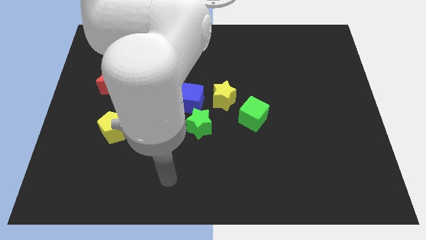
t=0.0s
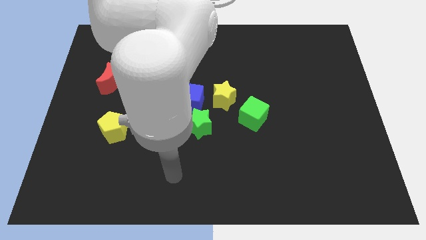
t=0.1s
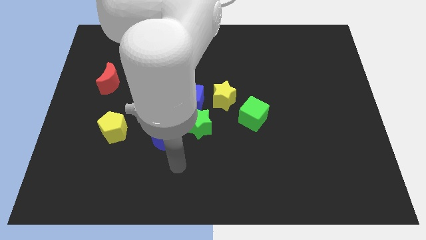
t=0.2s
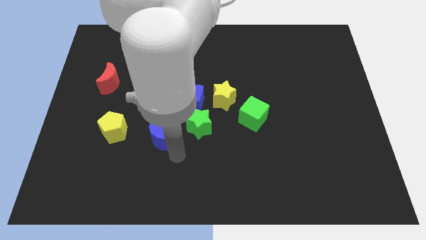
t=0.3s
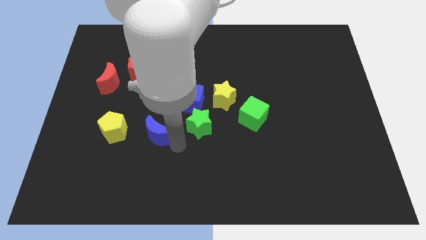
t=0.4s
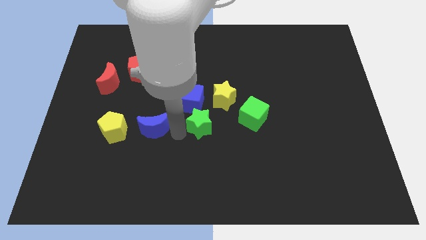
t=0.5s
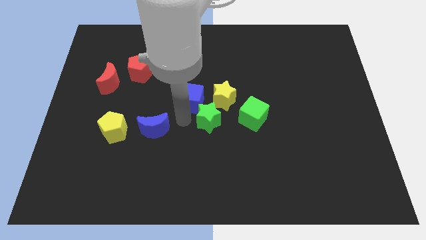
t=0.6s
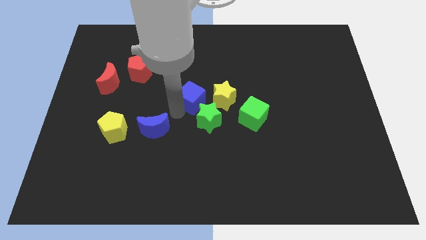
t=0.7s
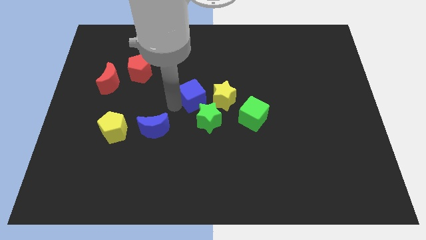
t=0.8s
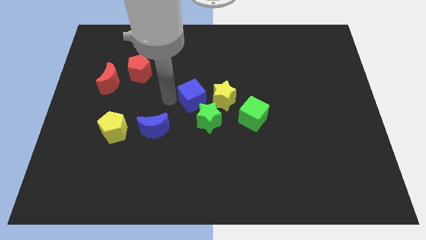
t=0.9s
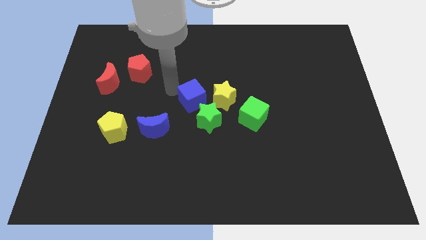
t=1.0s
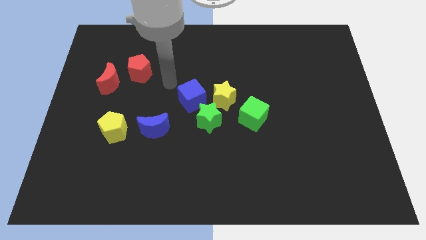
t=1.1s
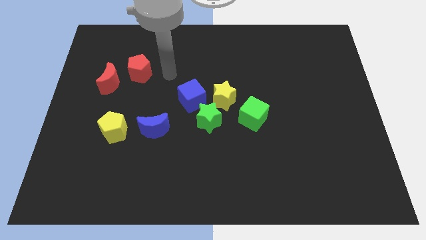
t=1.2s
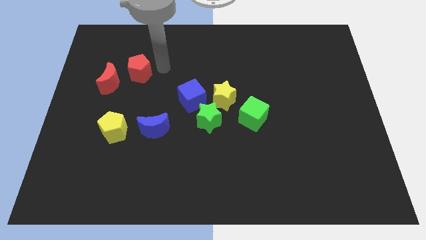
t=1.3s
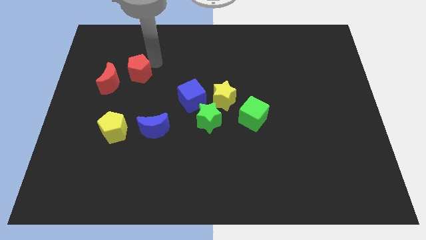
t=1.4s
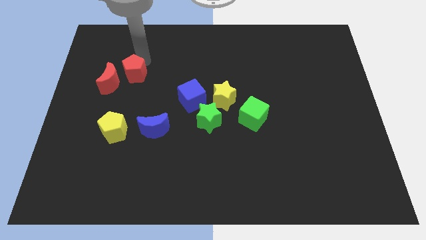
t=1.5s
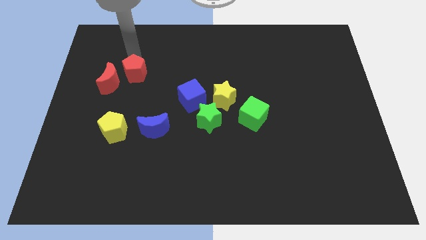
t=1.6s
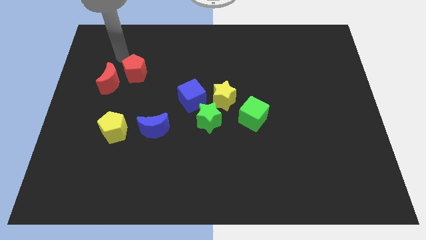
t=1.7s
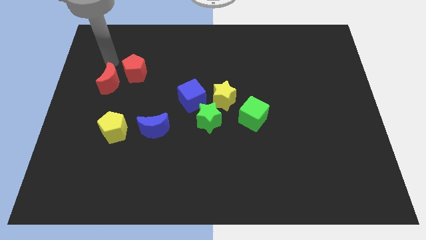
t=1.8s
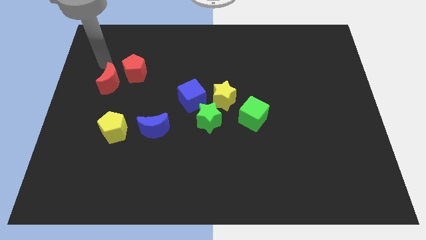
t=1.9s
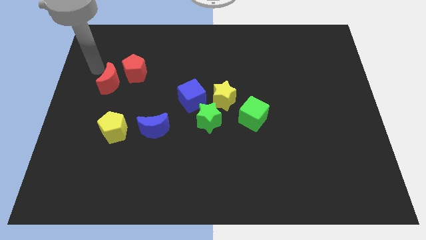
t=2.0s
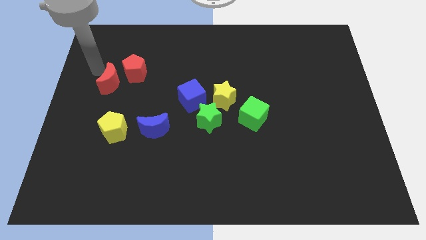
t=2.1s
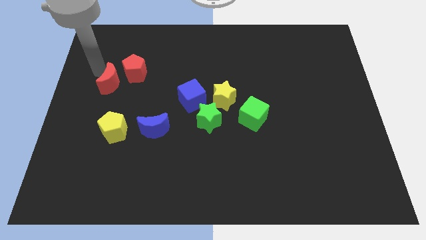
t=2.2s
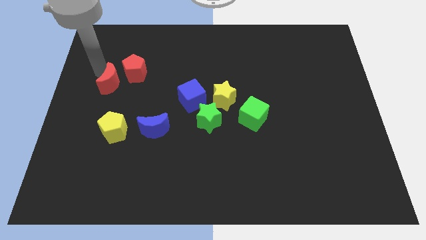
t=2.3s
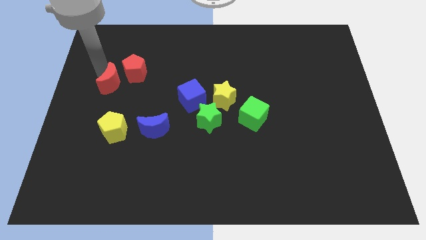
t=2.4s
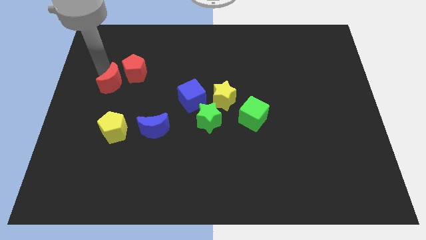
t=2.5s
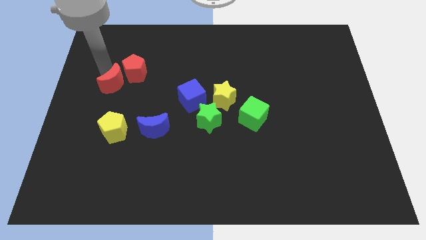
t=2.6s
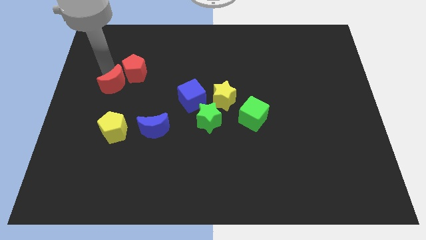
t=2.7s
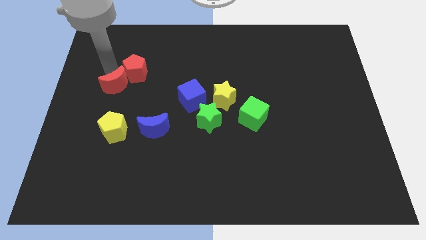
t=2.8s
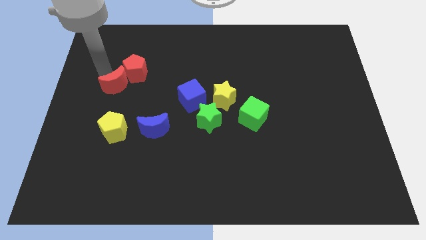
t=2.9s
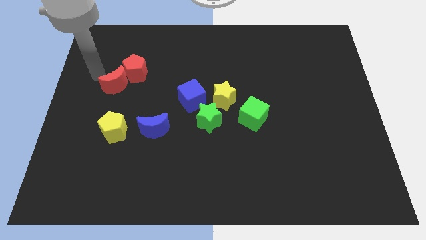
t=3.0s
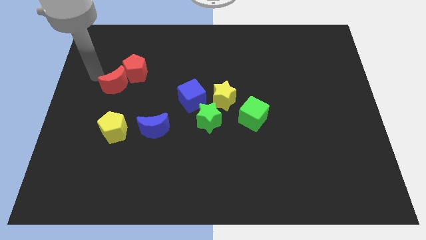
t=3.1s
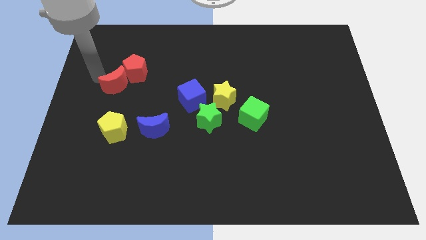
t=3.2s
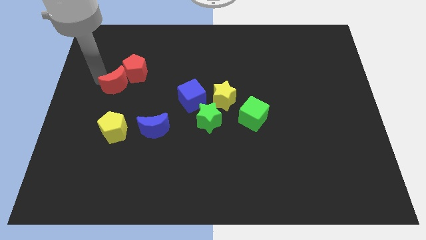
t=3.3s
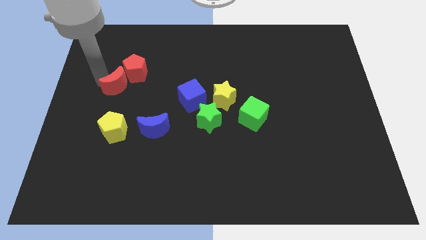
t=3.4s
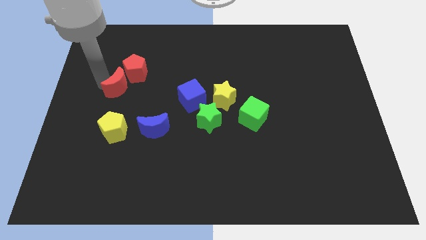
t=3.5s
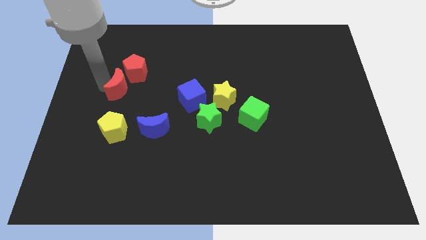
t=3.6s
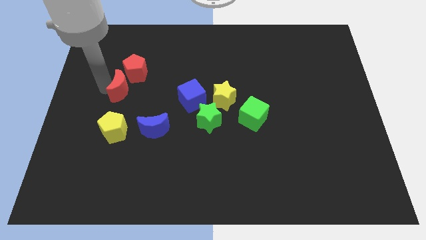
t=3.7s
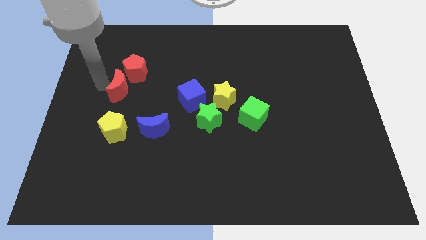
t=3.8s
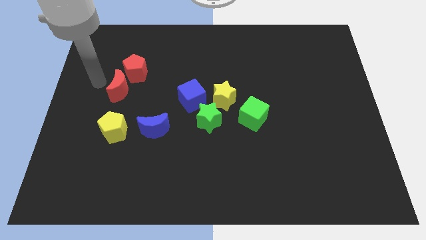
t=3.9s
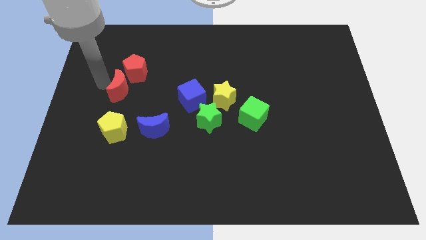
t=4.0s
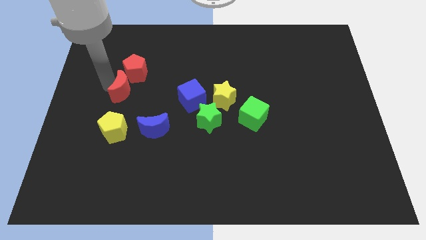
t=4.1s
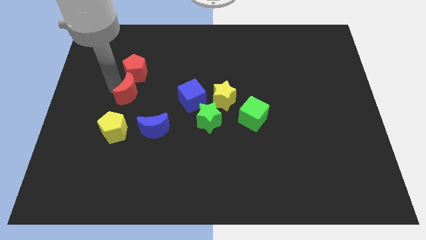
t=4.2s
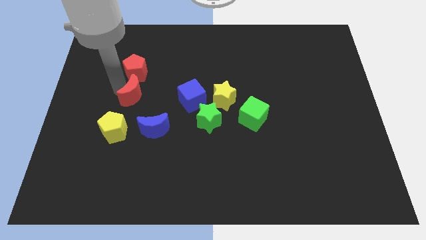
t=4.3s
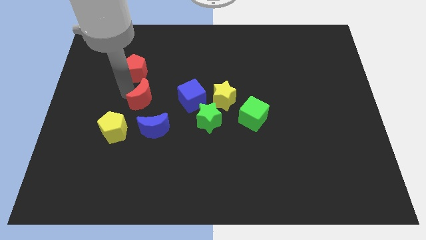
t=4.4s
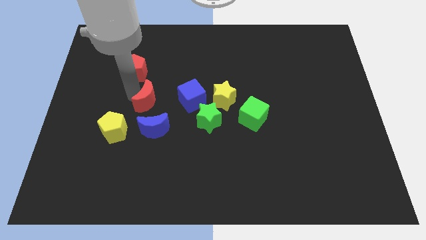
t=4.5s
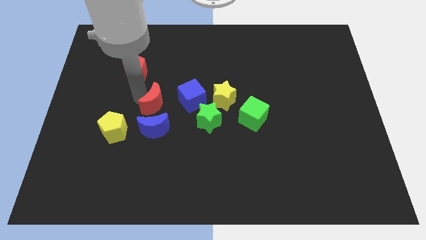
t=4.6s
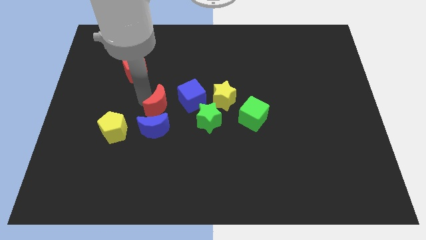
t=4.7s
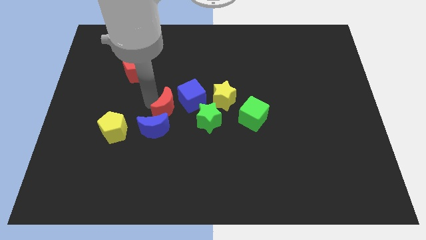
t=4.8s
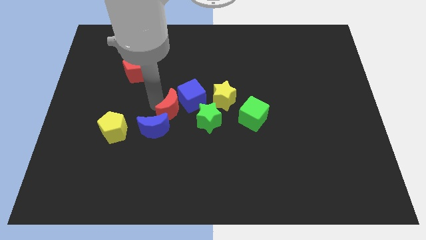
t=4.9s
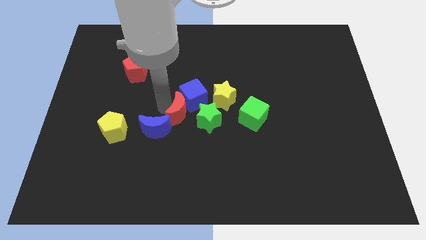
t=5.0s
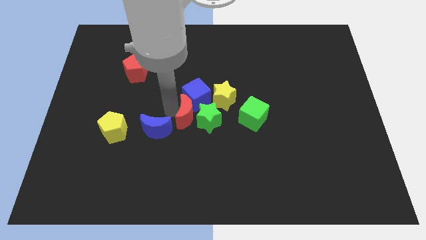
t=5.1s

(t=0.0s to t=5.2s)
push the red moon close to the green star

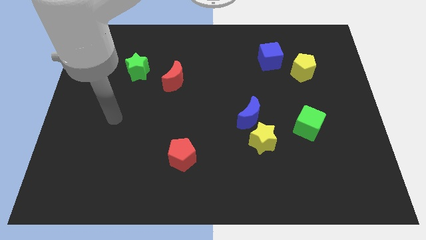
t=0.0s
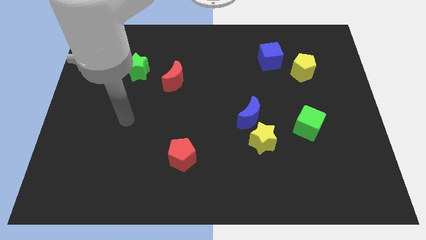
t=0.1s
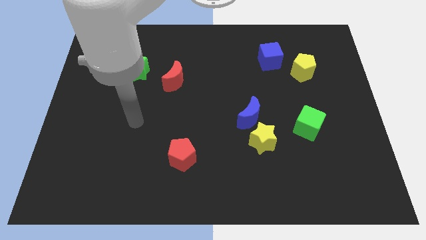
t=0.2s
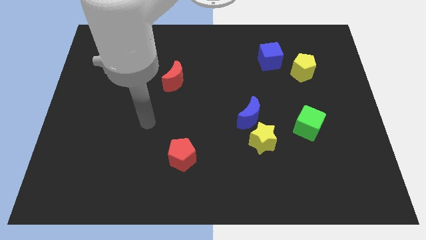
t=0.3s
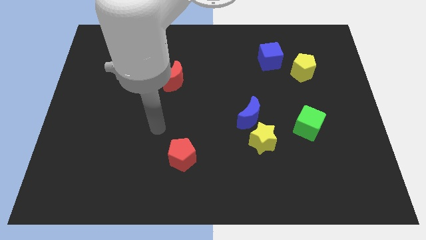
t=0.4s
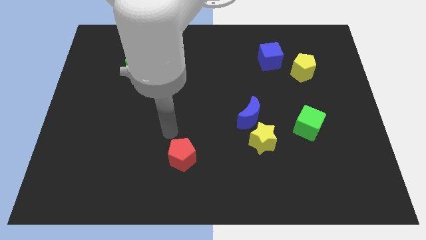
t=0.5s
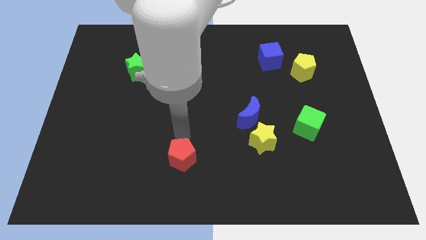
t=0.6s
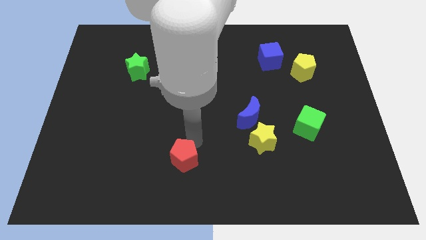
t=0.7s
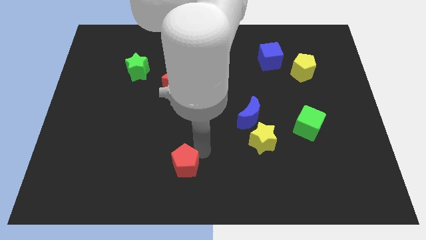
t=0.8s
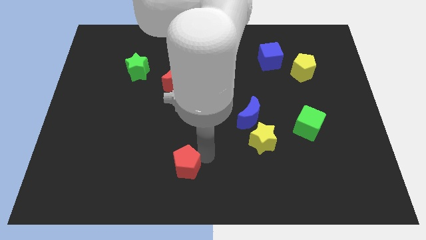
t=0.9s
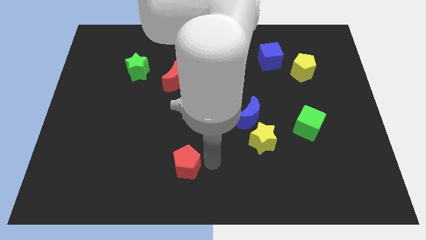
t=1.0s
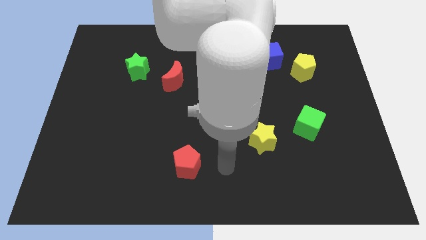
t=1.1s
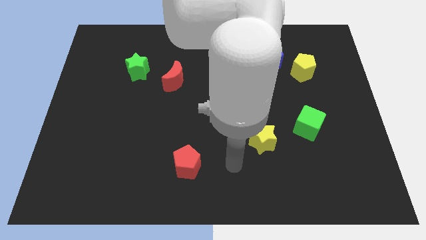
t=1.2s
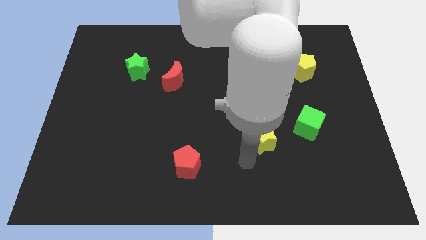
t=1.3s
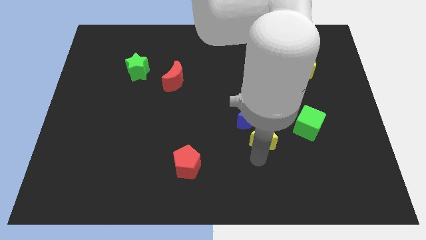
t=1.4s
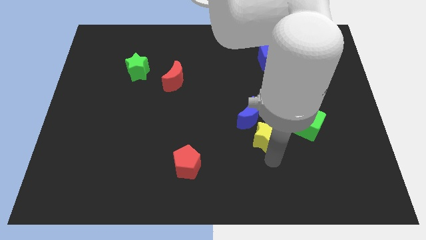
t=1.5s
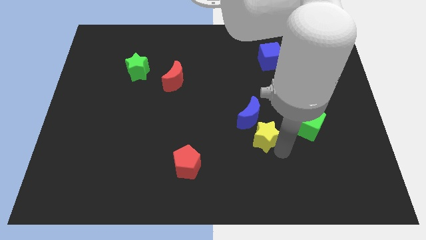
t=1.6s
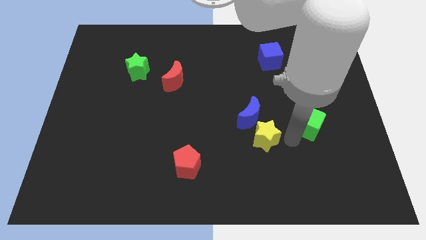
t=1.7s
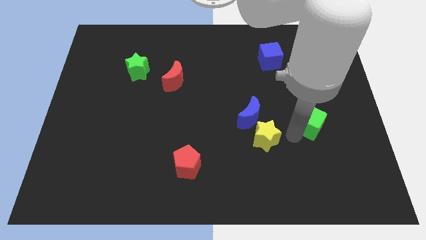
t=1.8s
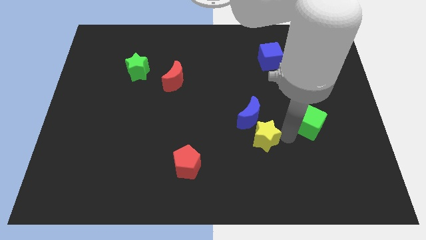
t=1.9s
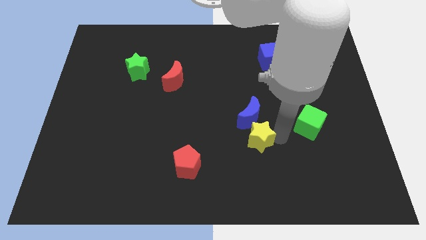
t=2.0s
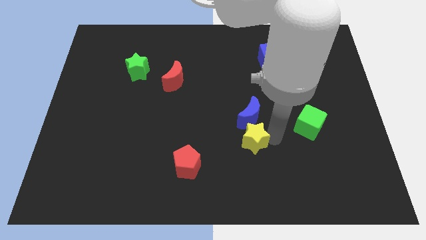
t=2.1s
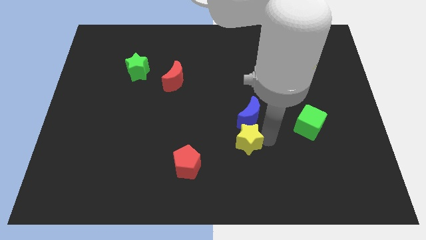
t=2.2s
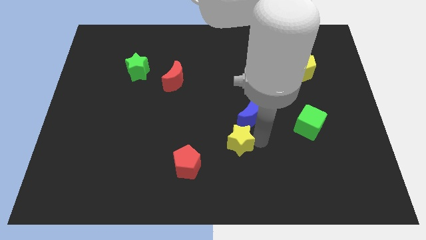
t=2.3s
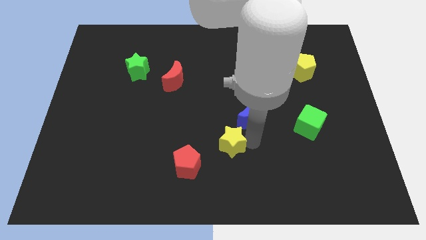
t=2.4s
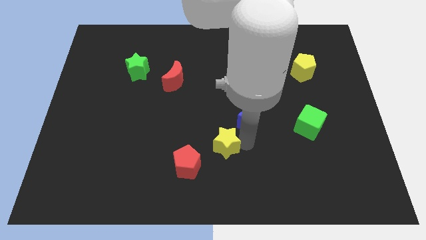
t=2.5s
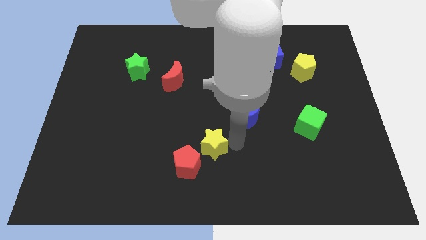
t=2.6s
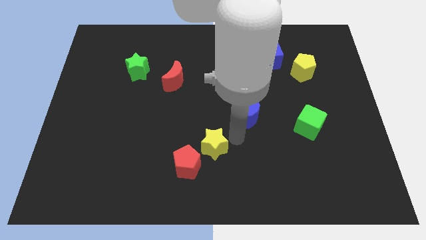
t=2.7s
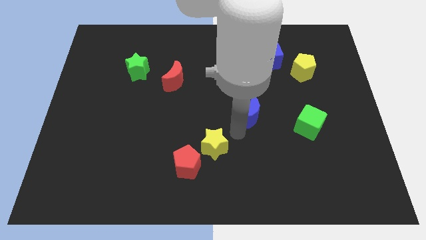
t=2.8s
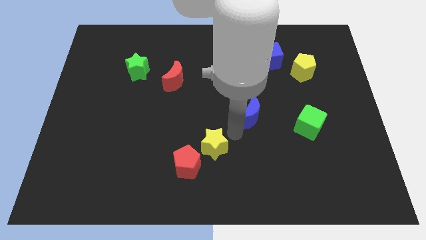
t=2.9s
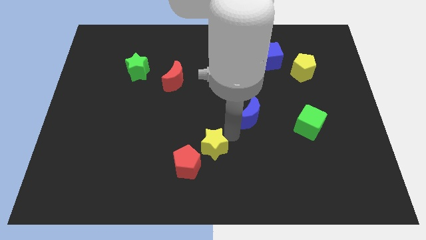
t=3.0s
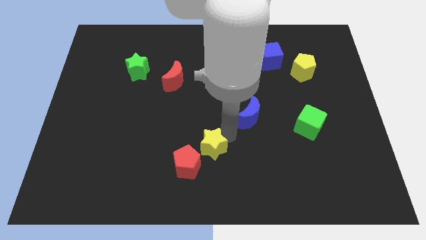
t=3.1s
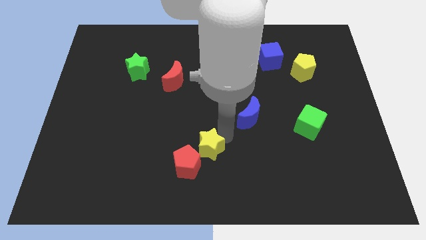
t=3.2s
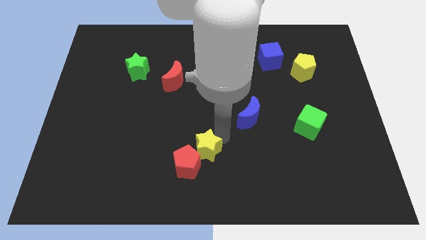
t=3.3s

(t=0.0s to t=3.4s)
push the yellow star towards the red pentagon
